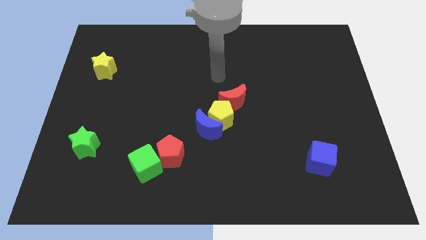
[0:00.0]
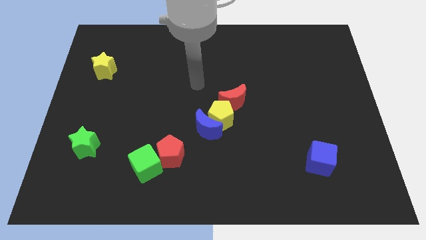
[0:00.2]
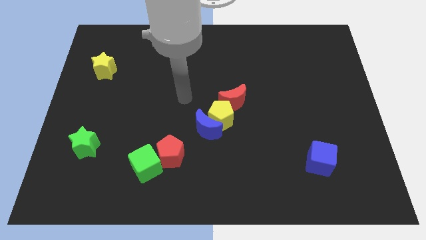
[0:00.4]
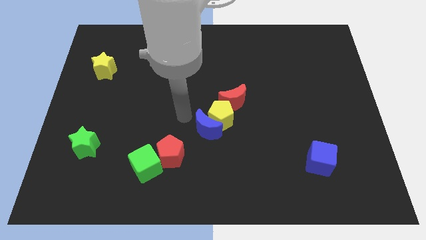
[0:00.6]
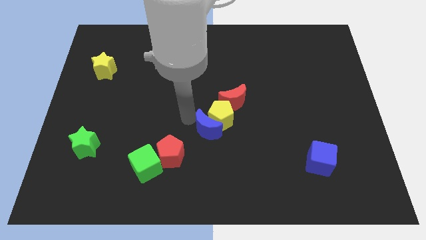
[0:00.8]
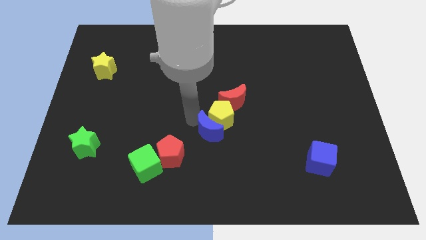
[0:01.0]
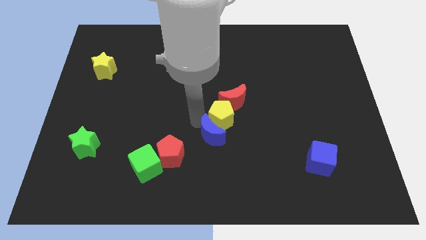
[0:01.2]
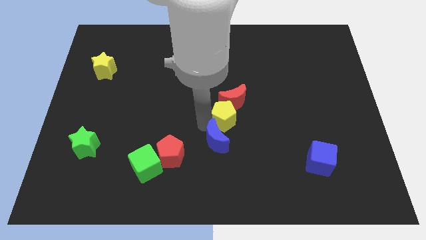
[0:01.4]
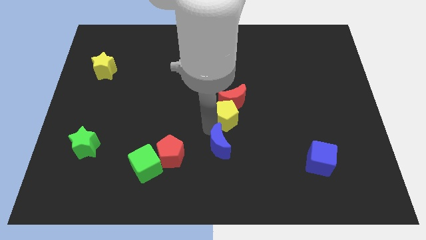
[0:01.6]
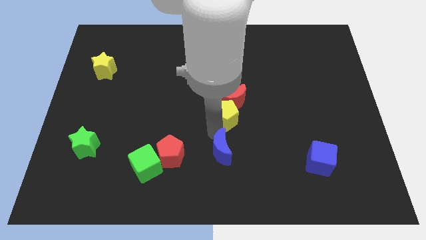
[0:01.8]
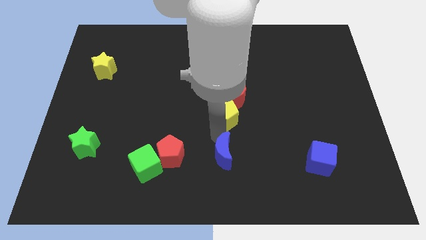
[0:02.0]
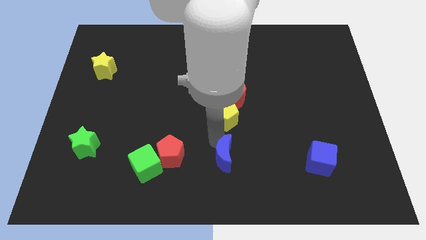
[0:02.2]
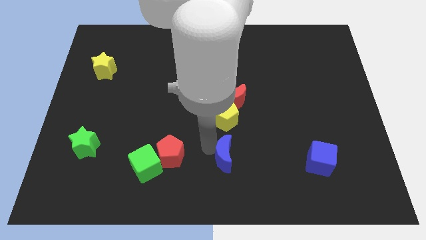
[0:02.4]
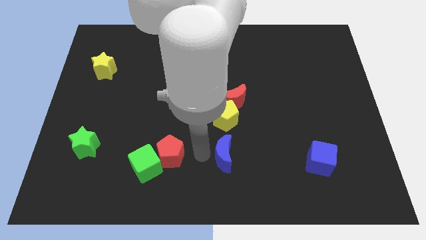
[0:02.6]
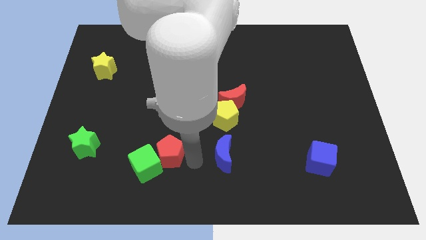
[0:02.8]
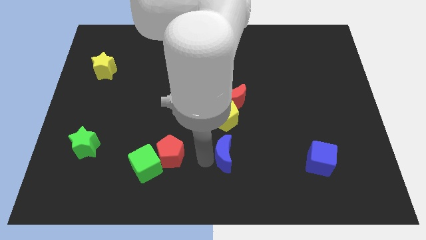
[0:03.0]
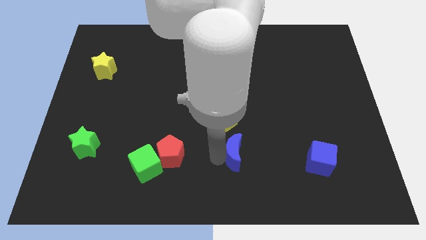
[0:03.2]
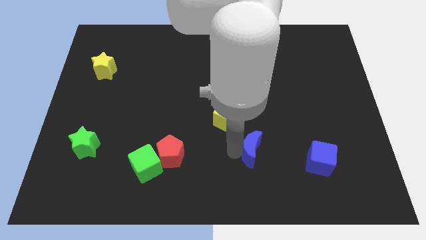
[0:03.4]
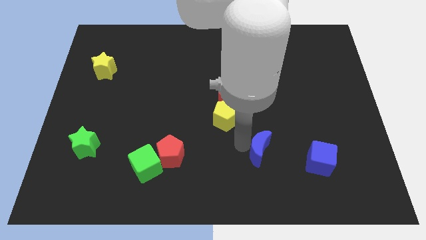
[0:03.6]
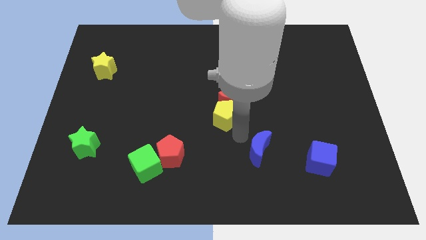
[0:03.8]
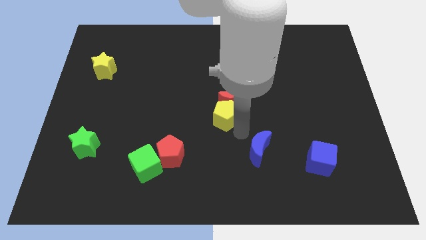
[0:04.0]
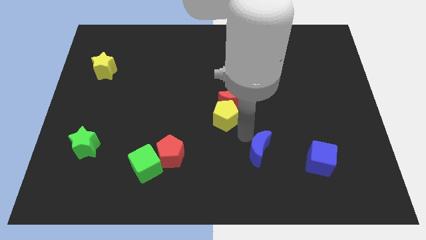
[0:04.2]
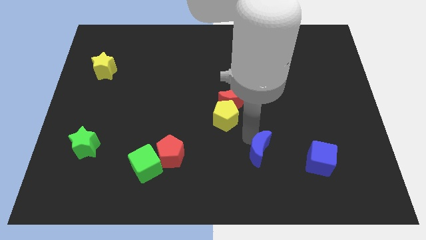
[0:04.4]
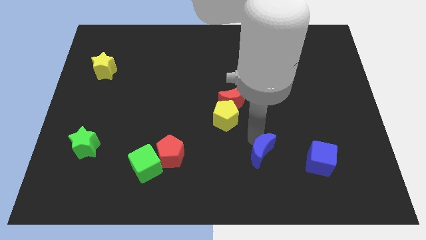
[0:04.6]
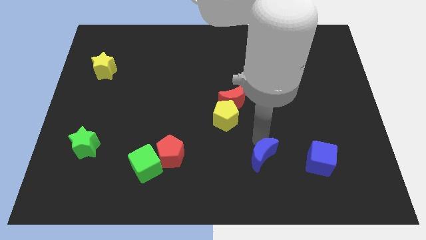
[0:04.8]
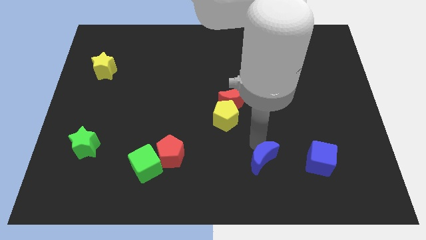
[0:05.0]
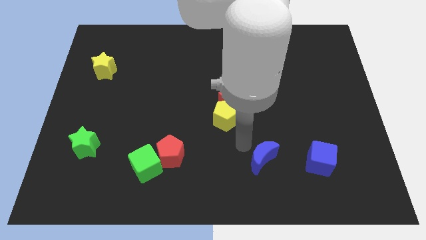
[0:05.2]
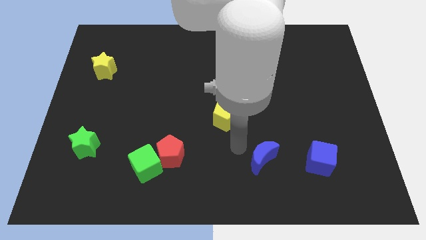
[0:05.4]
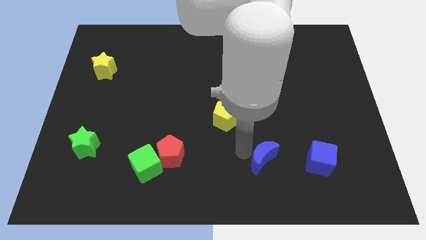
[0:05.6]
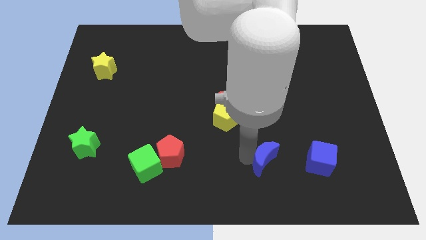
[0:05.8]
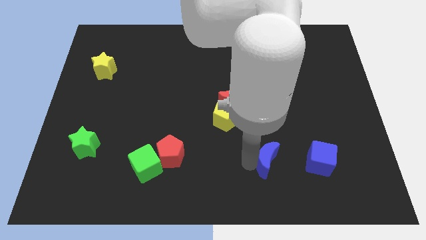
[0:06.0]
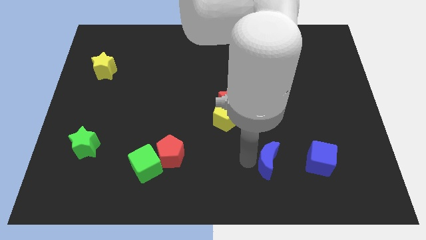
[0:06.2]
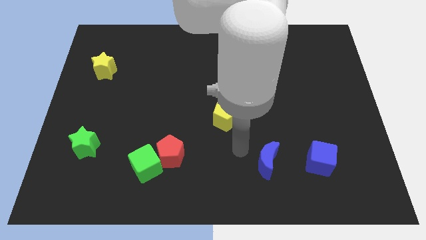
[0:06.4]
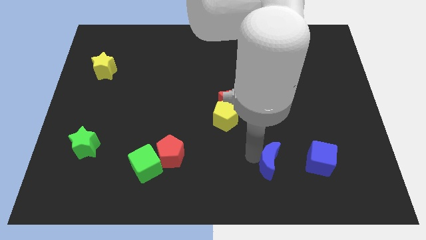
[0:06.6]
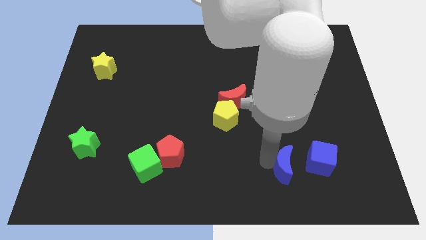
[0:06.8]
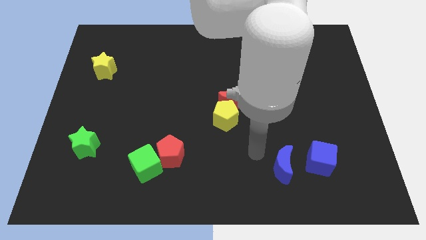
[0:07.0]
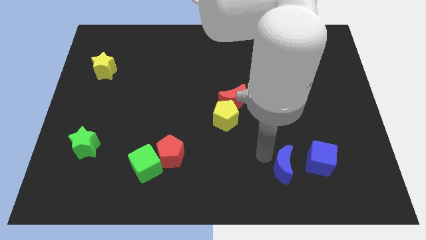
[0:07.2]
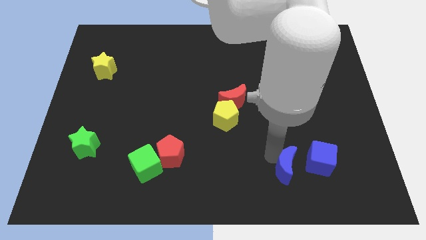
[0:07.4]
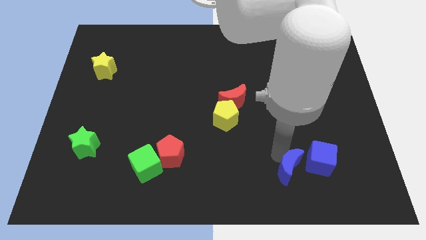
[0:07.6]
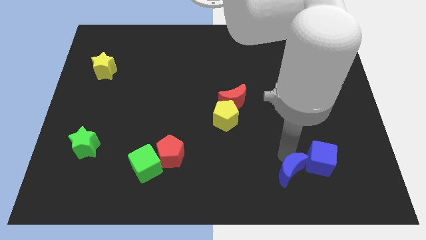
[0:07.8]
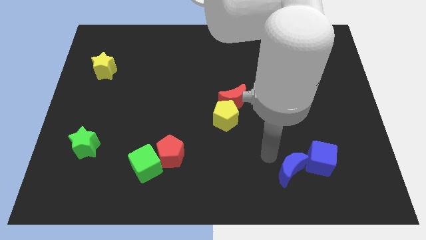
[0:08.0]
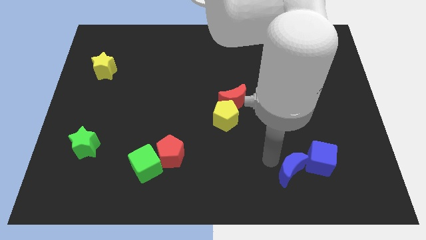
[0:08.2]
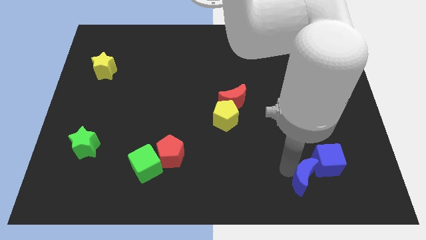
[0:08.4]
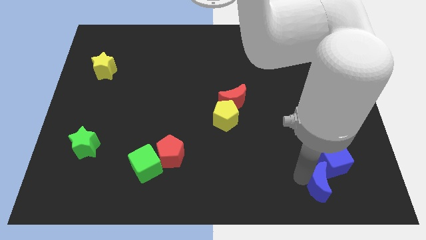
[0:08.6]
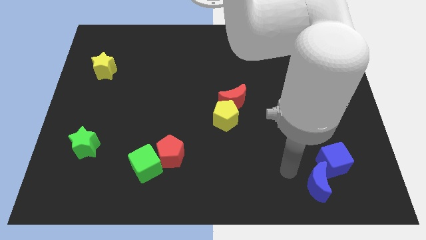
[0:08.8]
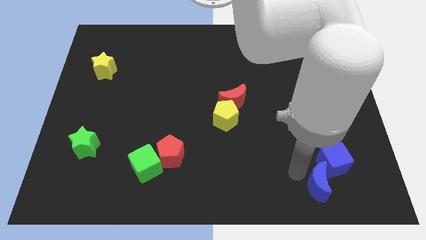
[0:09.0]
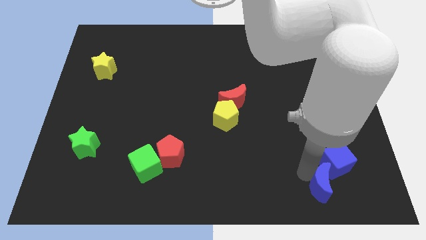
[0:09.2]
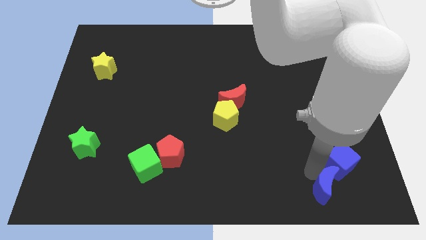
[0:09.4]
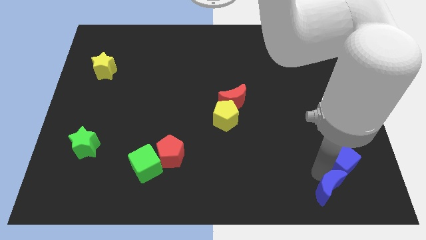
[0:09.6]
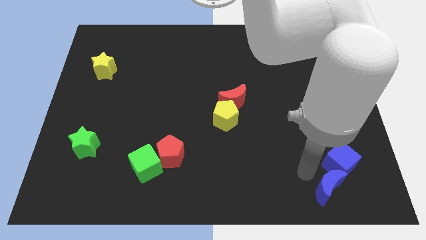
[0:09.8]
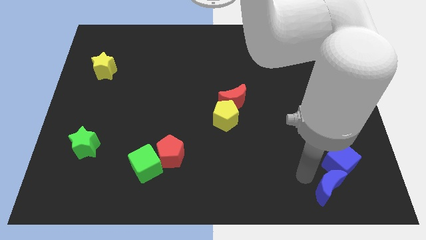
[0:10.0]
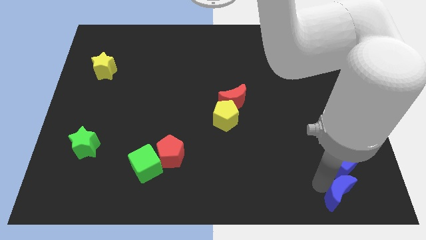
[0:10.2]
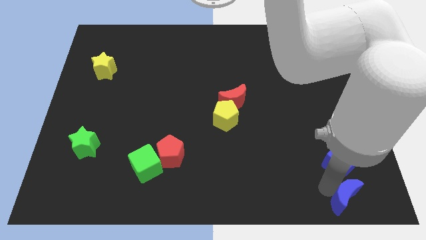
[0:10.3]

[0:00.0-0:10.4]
push the blue moon to the bottom right corner

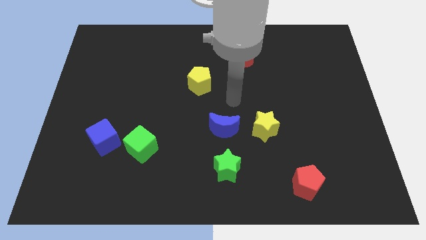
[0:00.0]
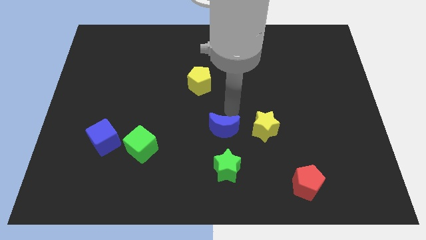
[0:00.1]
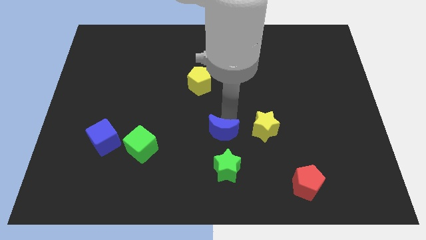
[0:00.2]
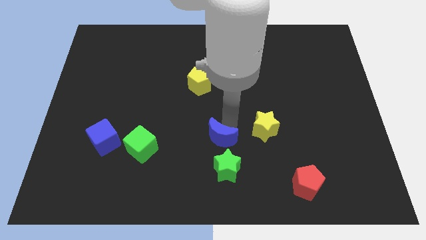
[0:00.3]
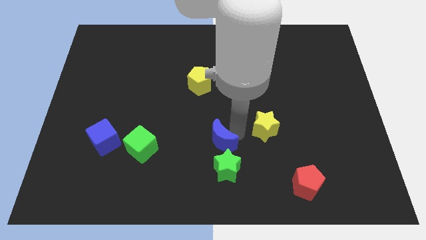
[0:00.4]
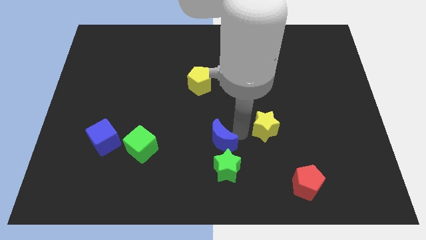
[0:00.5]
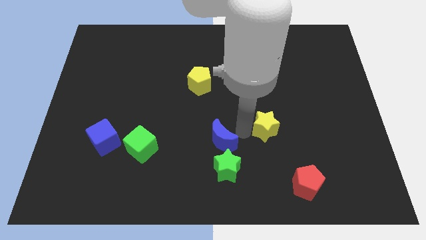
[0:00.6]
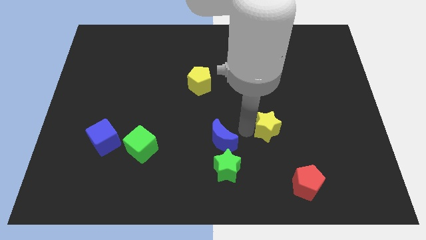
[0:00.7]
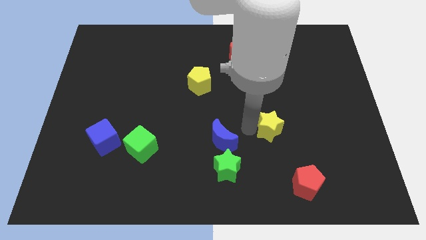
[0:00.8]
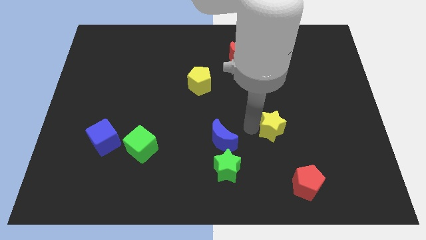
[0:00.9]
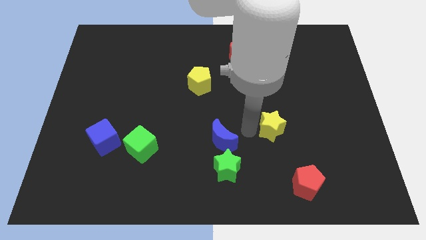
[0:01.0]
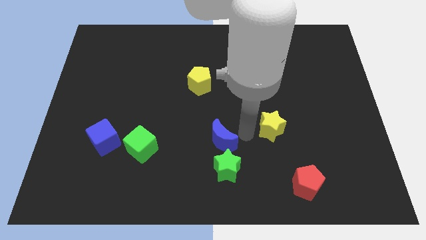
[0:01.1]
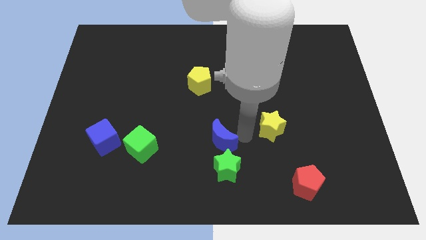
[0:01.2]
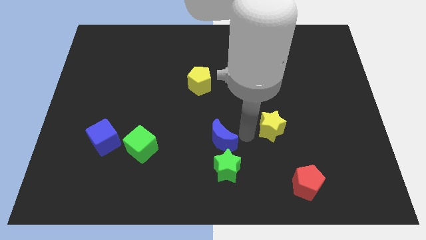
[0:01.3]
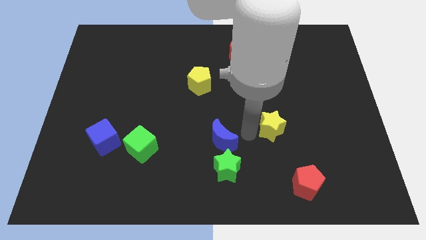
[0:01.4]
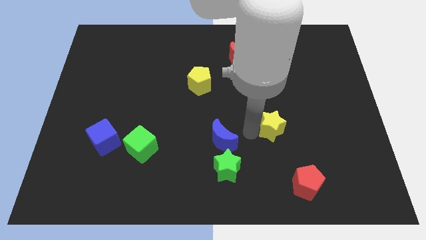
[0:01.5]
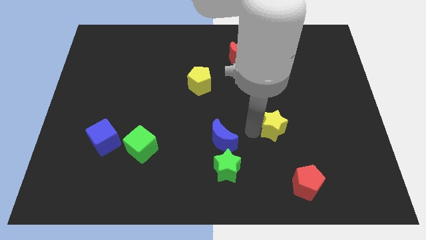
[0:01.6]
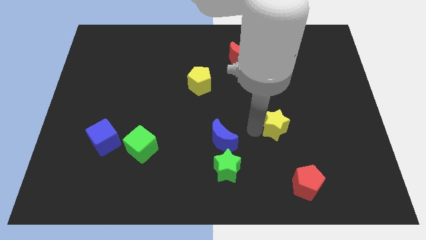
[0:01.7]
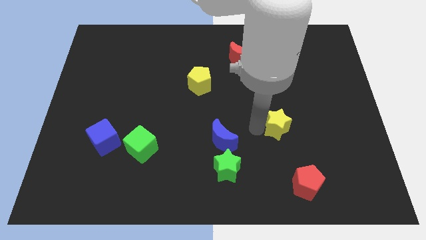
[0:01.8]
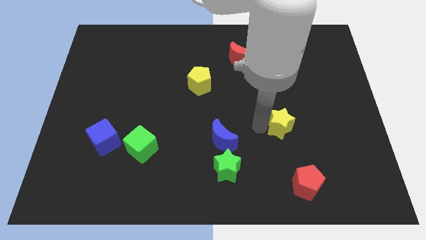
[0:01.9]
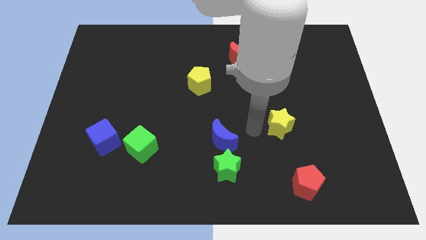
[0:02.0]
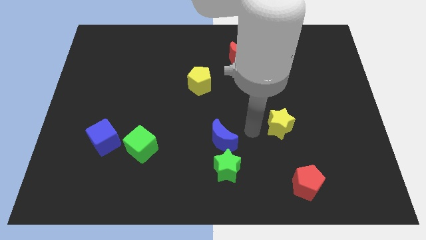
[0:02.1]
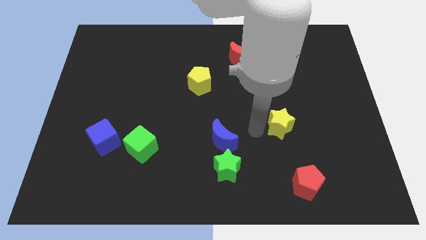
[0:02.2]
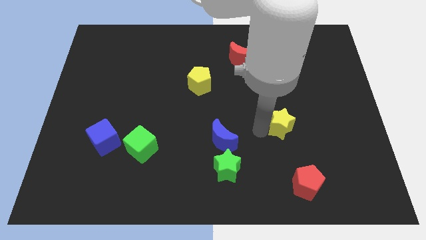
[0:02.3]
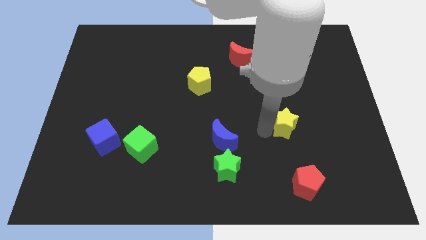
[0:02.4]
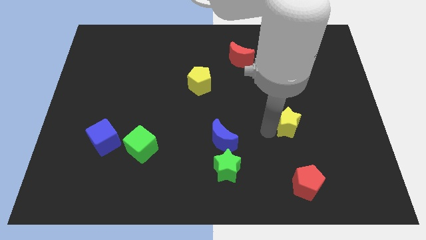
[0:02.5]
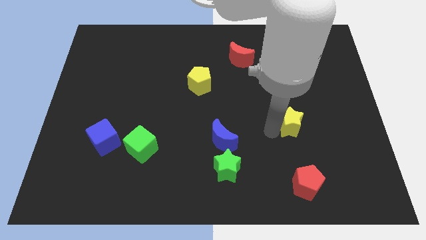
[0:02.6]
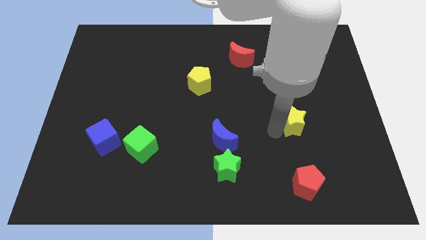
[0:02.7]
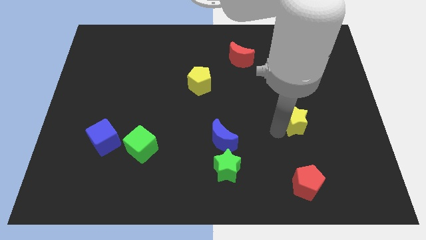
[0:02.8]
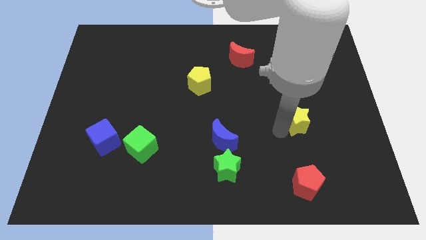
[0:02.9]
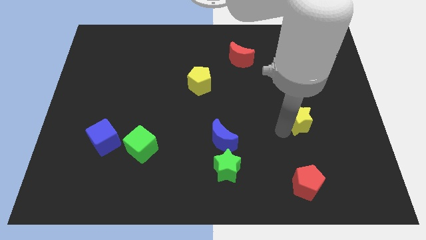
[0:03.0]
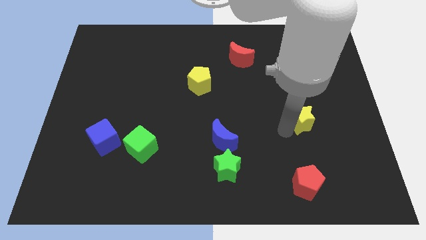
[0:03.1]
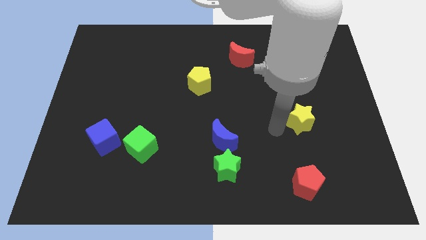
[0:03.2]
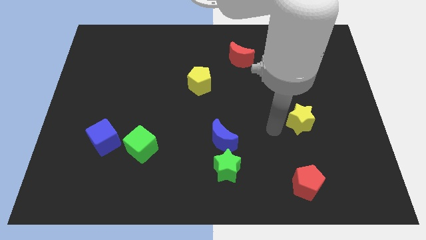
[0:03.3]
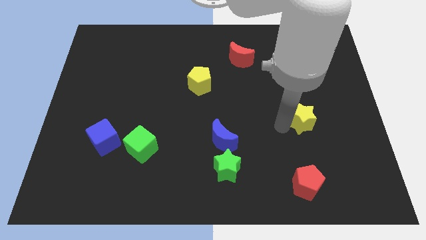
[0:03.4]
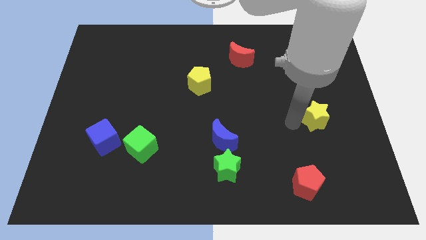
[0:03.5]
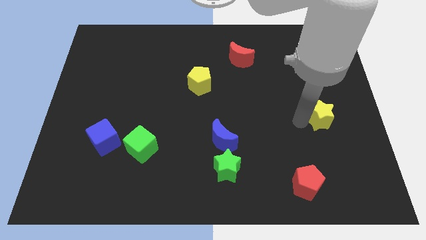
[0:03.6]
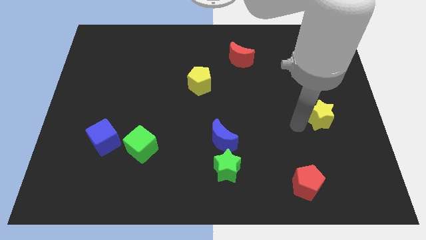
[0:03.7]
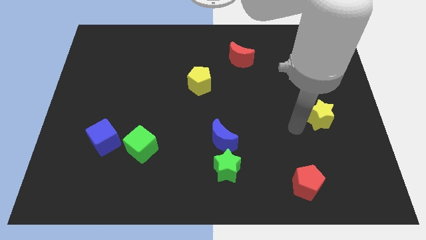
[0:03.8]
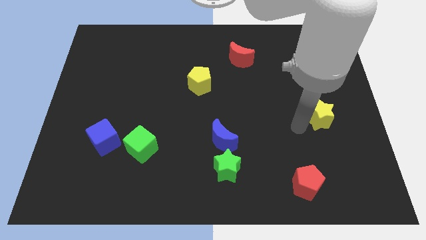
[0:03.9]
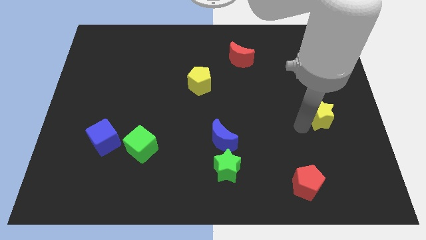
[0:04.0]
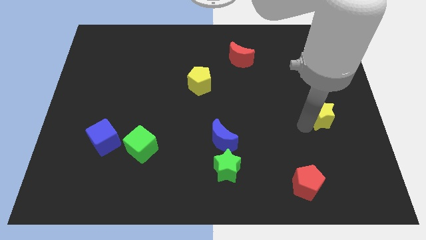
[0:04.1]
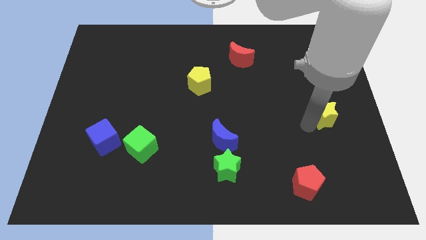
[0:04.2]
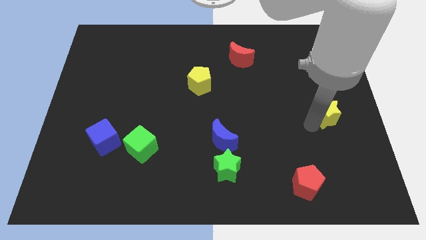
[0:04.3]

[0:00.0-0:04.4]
slide the yellow star to the right side of the board
